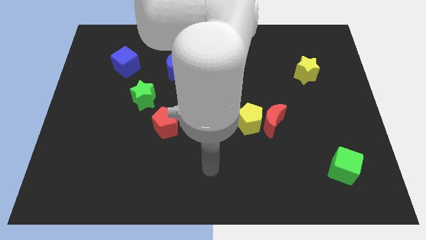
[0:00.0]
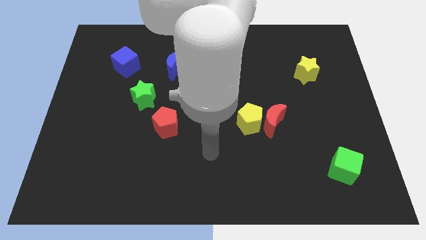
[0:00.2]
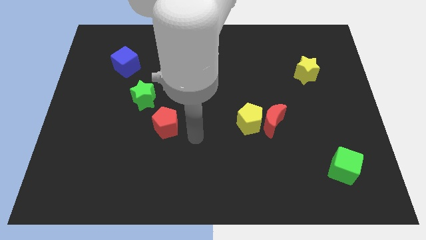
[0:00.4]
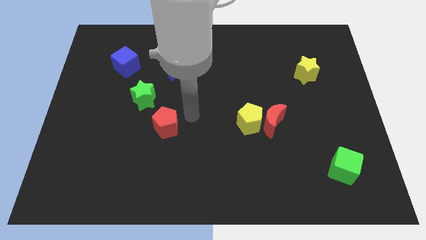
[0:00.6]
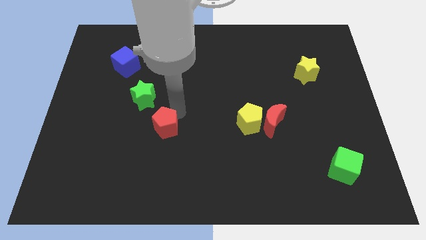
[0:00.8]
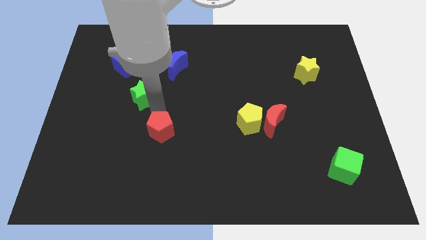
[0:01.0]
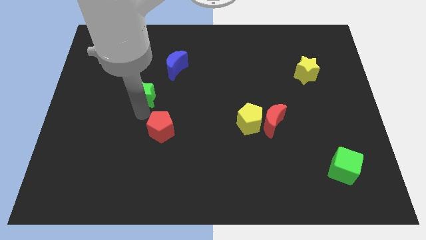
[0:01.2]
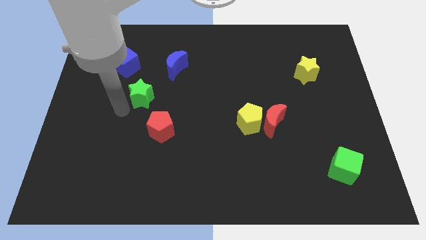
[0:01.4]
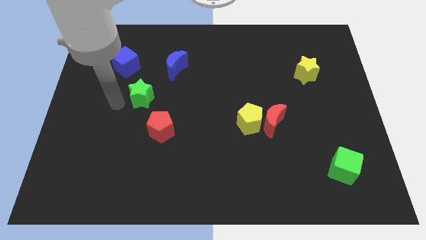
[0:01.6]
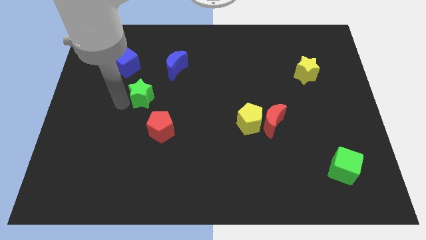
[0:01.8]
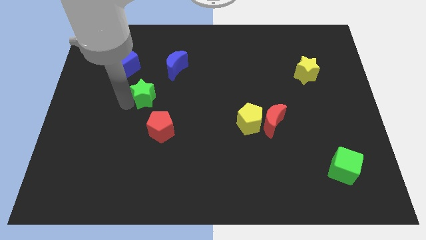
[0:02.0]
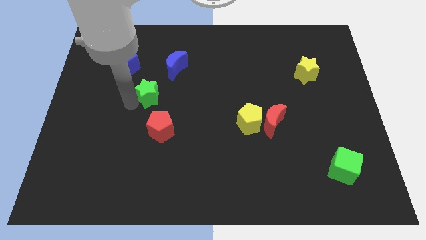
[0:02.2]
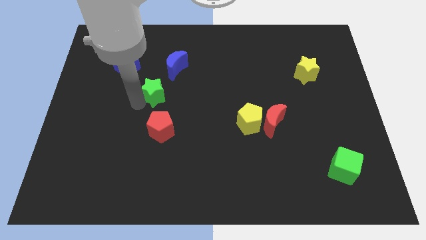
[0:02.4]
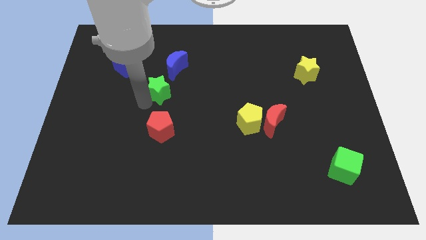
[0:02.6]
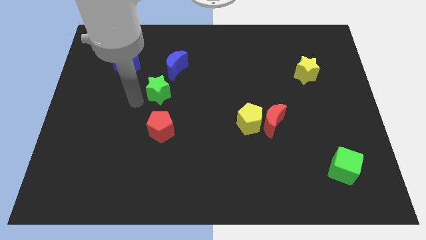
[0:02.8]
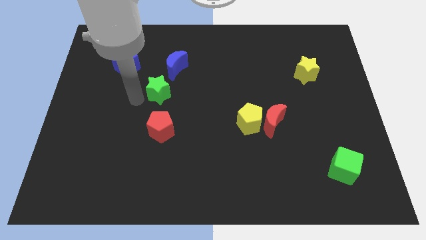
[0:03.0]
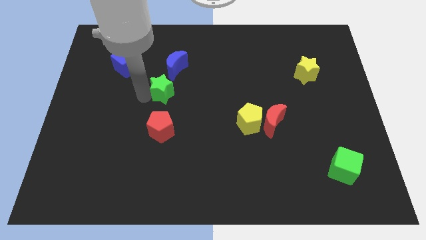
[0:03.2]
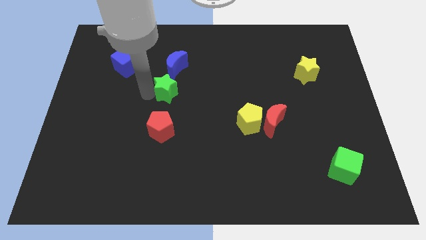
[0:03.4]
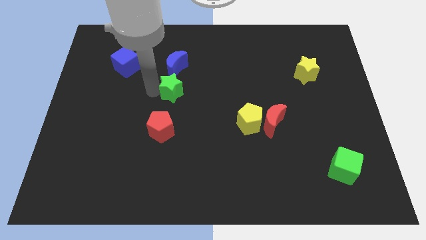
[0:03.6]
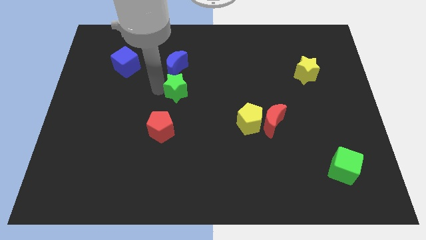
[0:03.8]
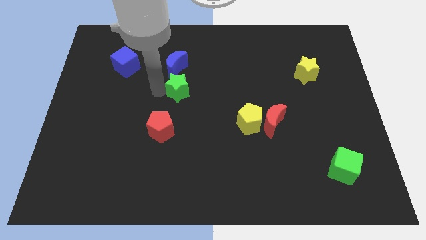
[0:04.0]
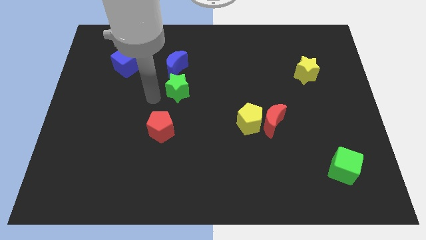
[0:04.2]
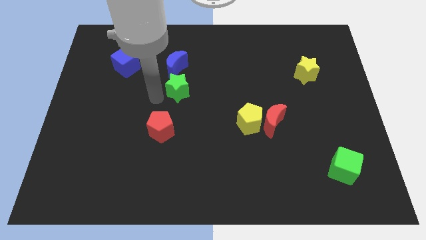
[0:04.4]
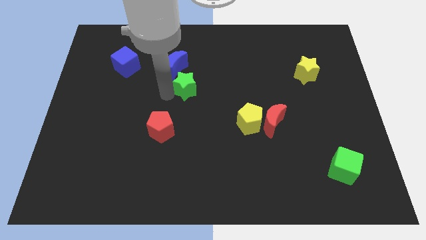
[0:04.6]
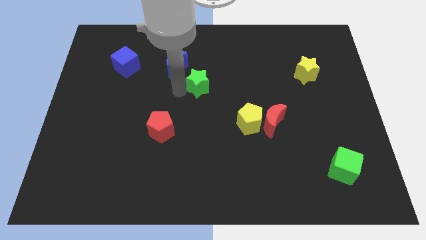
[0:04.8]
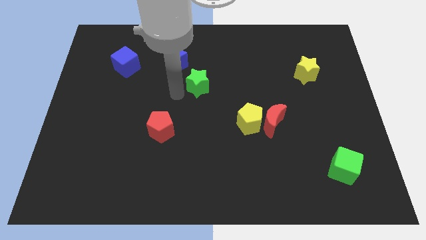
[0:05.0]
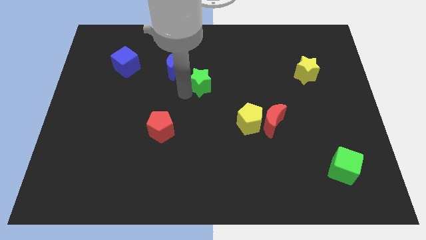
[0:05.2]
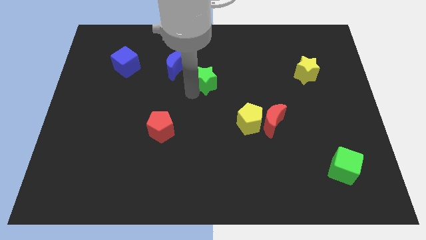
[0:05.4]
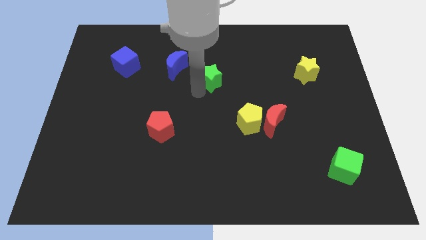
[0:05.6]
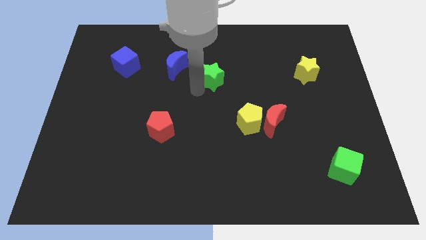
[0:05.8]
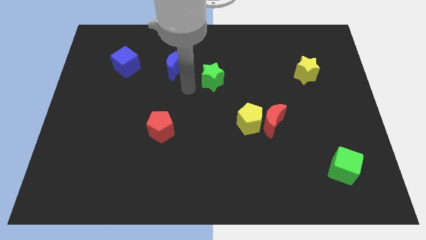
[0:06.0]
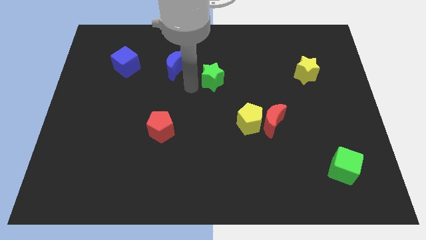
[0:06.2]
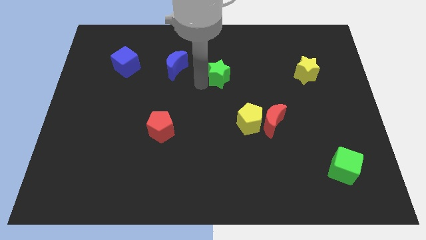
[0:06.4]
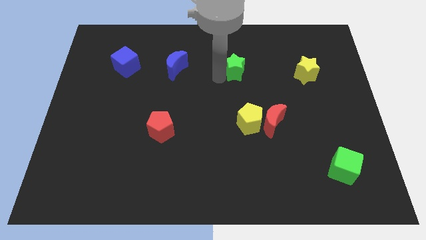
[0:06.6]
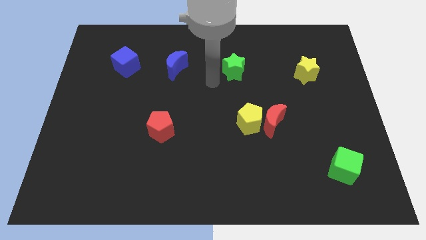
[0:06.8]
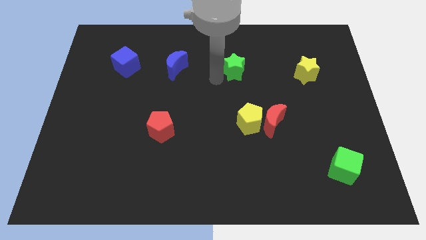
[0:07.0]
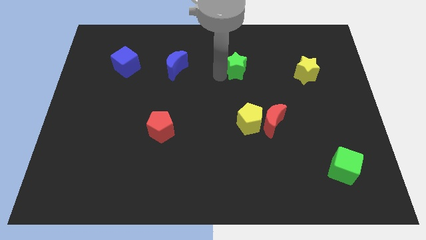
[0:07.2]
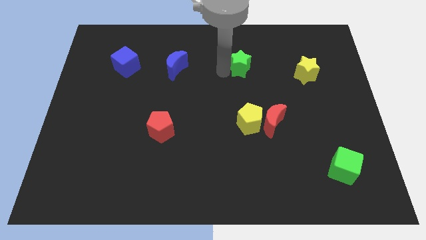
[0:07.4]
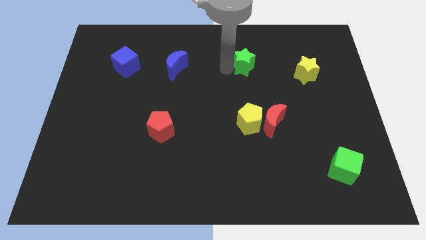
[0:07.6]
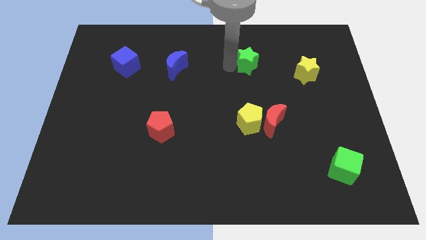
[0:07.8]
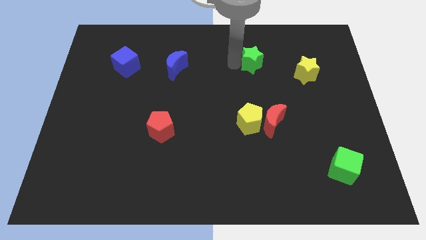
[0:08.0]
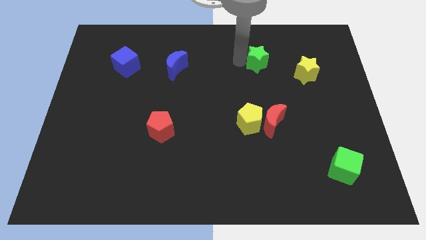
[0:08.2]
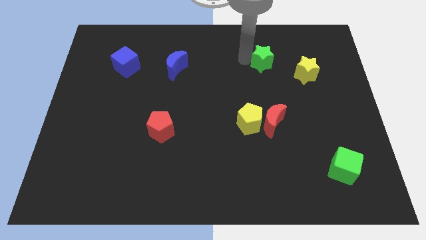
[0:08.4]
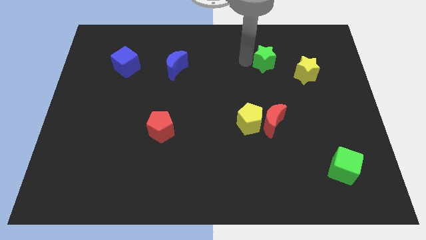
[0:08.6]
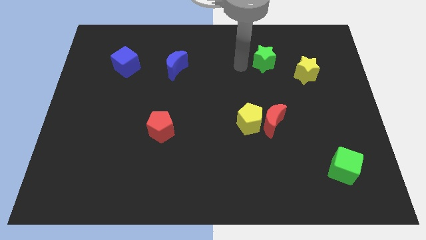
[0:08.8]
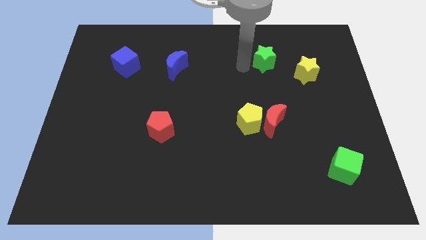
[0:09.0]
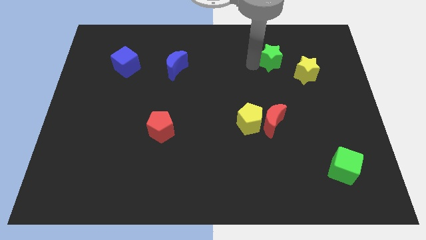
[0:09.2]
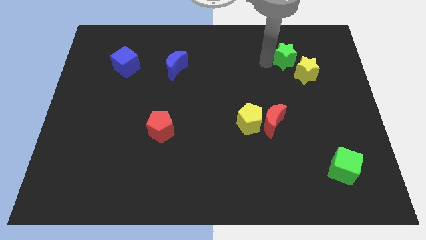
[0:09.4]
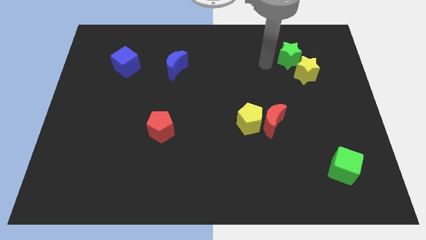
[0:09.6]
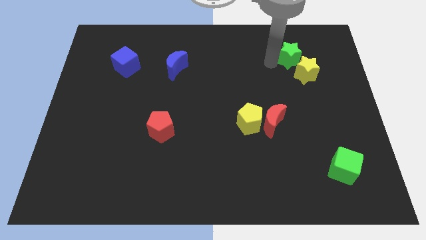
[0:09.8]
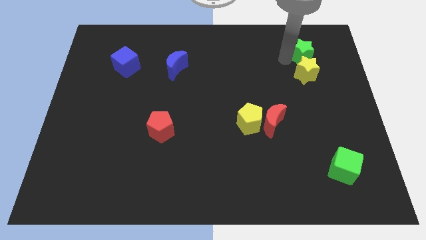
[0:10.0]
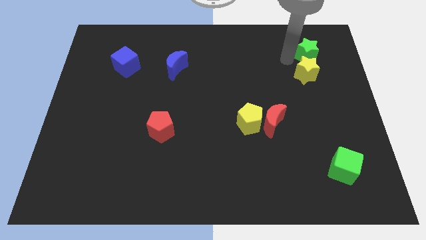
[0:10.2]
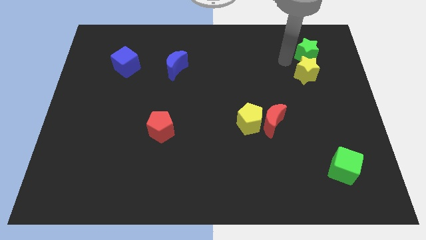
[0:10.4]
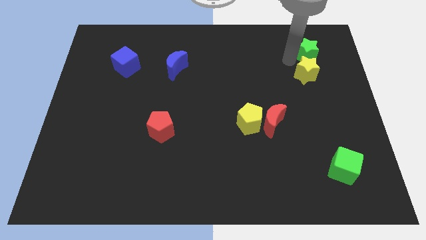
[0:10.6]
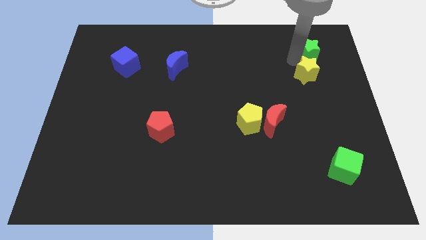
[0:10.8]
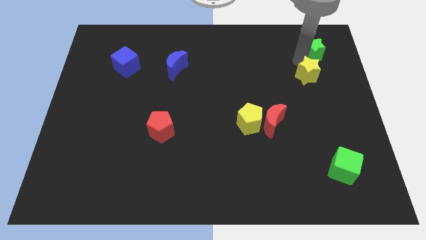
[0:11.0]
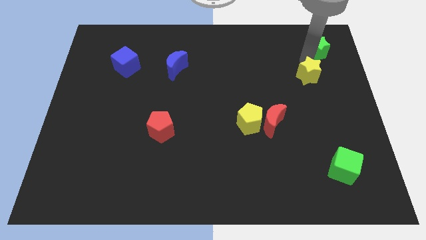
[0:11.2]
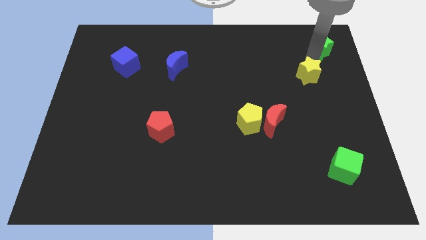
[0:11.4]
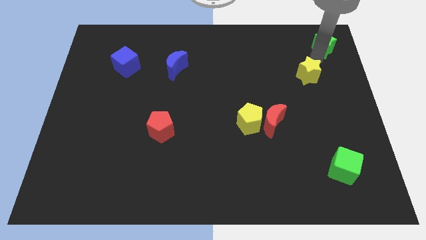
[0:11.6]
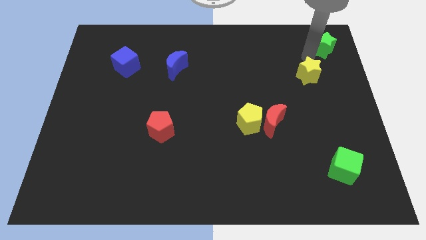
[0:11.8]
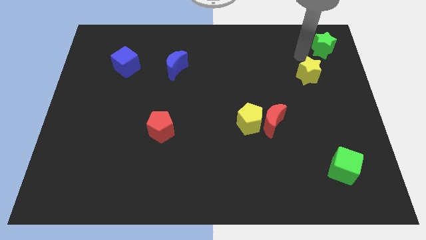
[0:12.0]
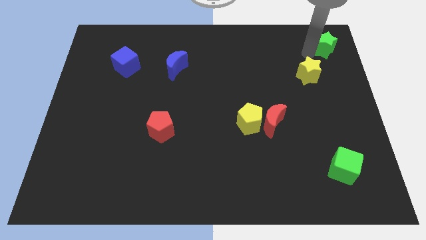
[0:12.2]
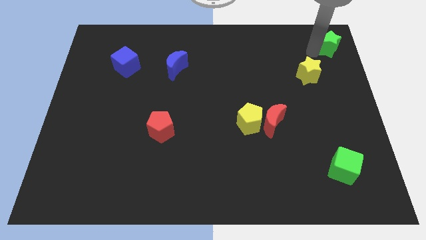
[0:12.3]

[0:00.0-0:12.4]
push the green star to the top right corner

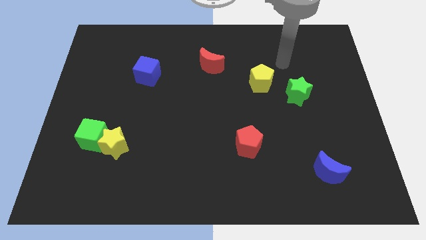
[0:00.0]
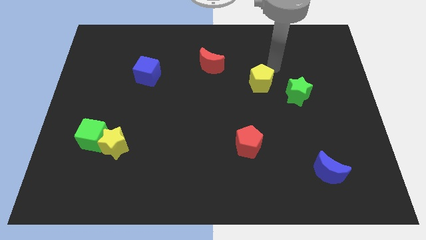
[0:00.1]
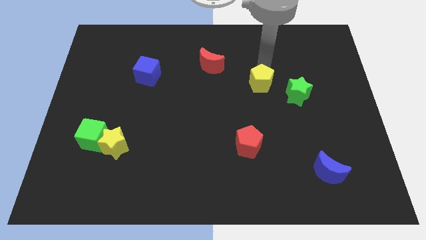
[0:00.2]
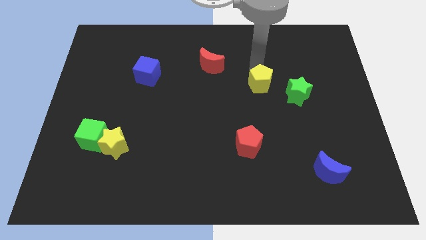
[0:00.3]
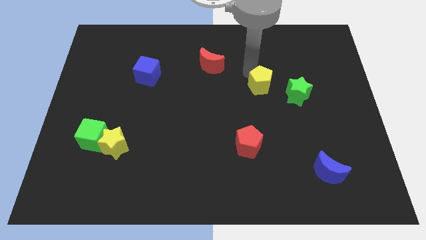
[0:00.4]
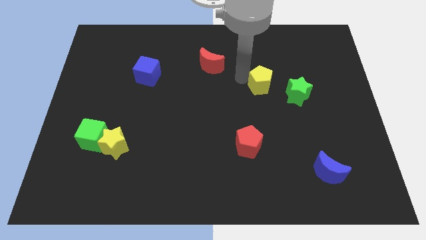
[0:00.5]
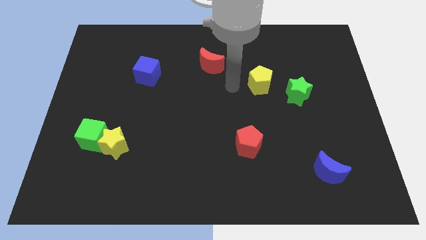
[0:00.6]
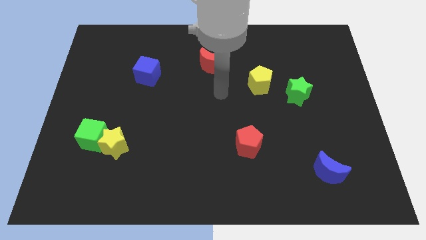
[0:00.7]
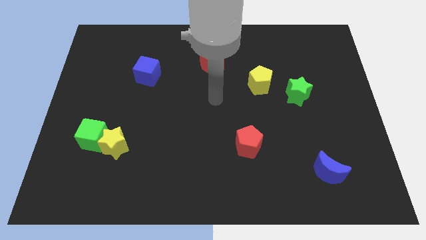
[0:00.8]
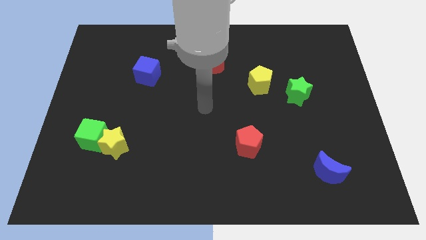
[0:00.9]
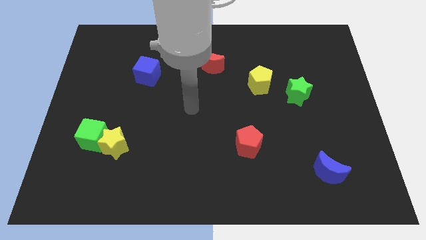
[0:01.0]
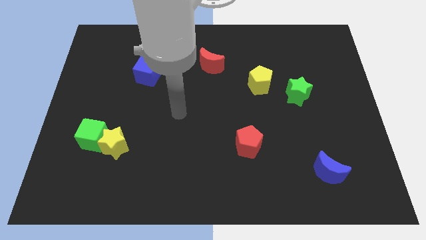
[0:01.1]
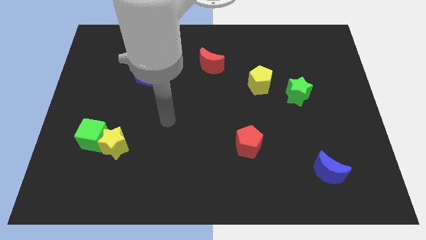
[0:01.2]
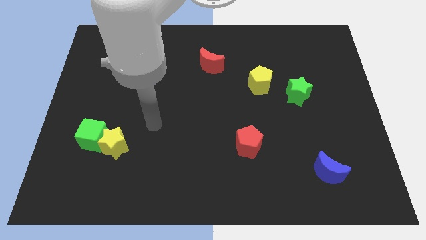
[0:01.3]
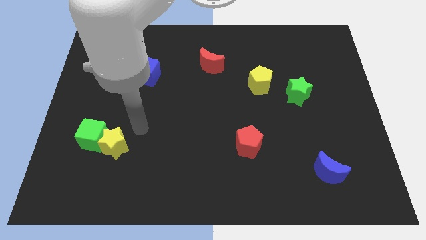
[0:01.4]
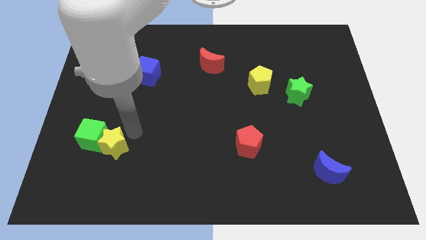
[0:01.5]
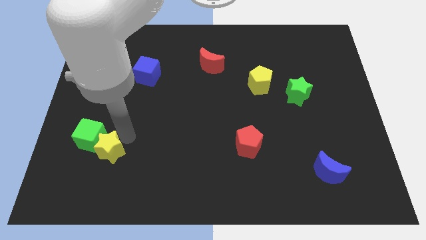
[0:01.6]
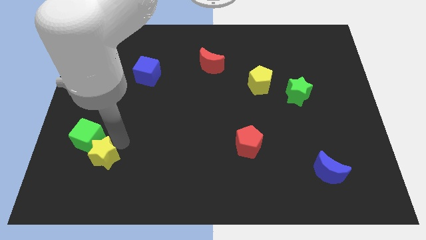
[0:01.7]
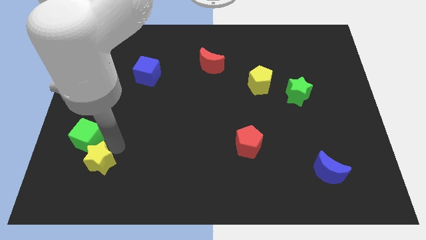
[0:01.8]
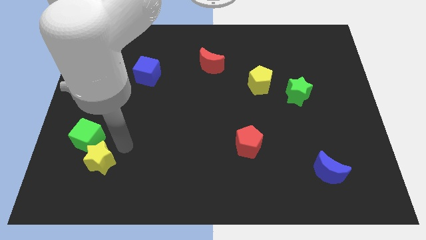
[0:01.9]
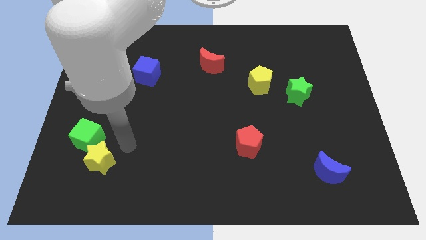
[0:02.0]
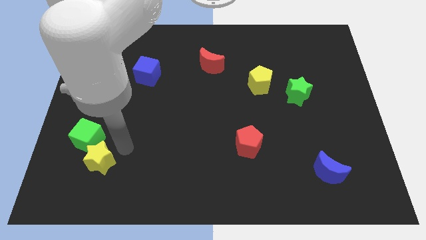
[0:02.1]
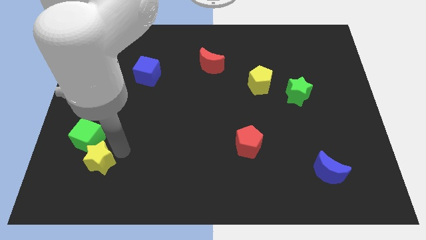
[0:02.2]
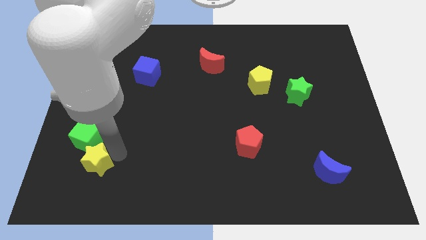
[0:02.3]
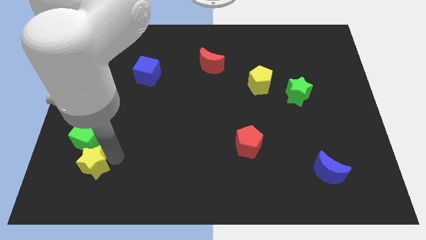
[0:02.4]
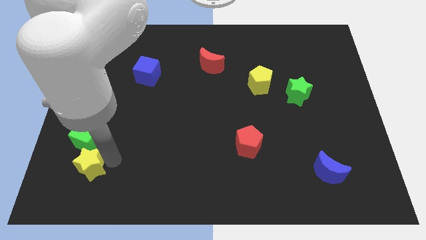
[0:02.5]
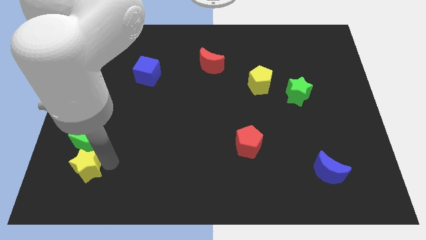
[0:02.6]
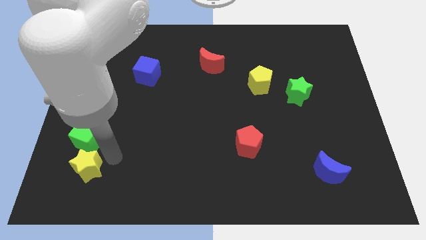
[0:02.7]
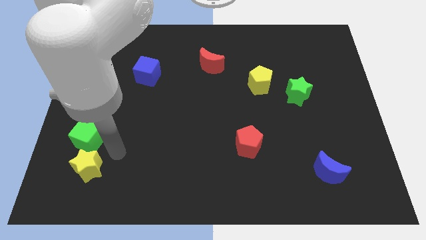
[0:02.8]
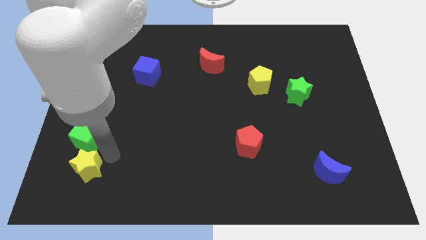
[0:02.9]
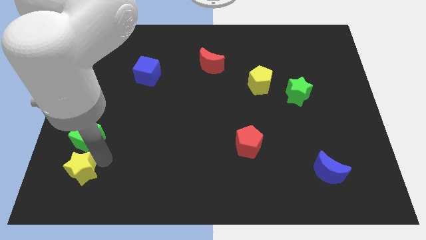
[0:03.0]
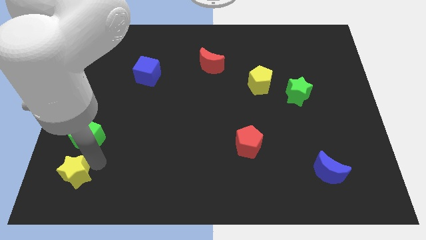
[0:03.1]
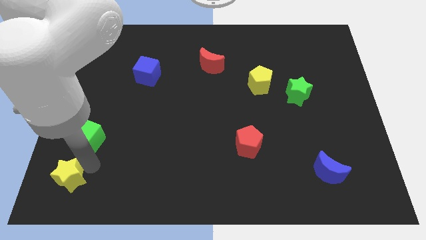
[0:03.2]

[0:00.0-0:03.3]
slide the yellow star to the bottom left
